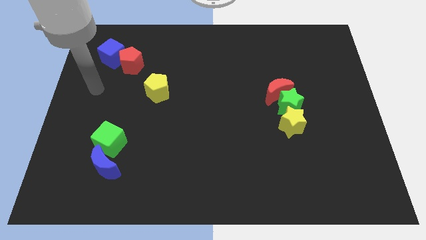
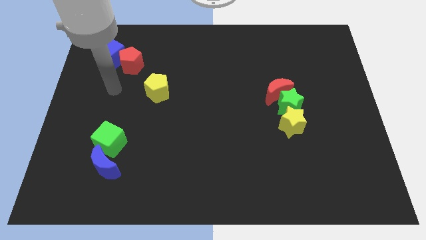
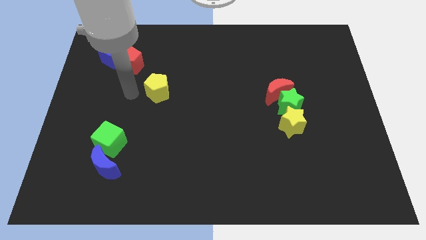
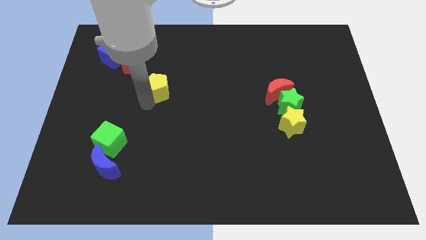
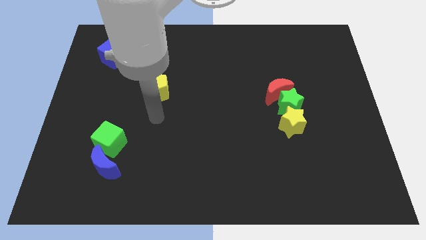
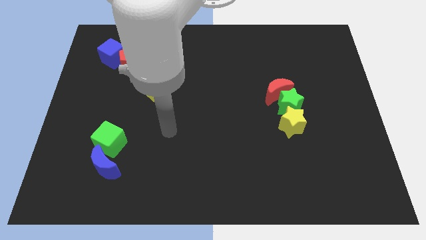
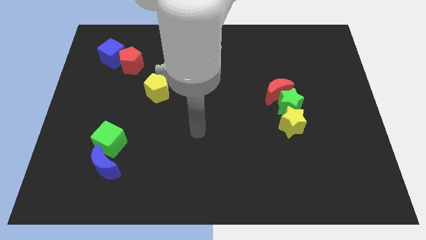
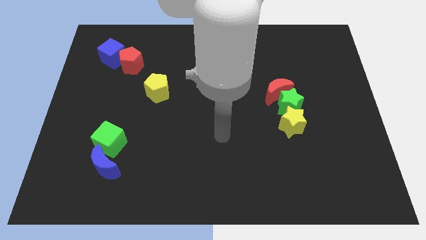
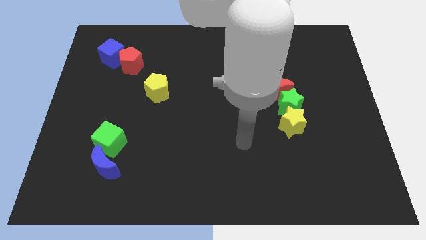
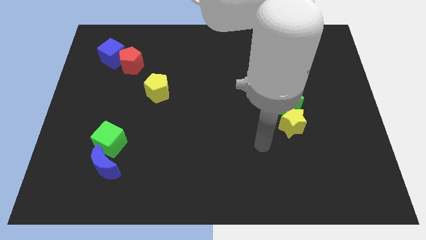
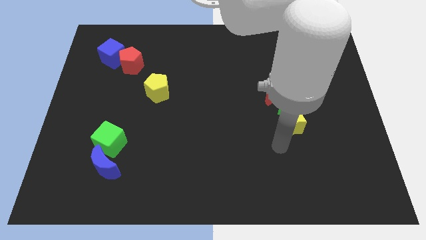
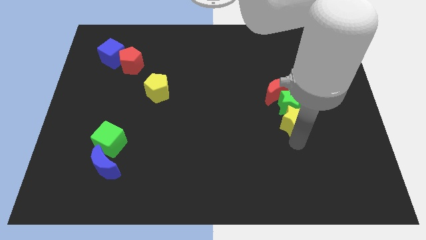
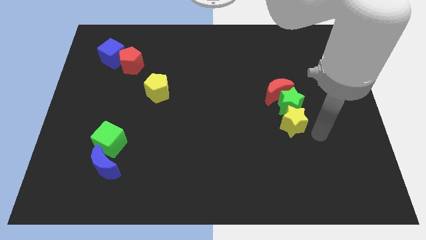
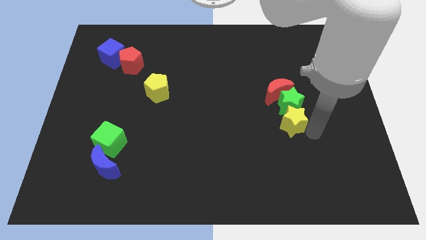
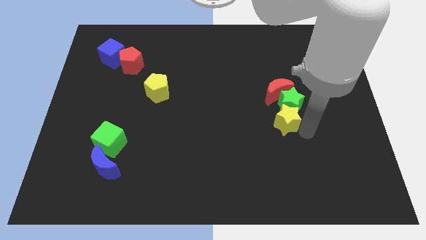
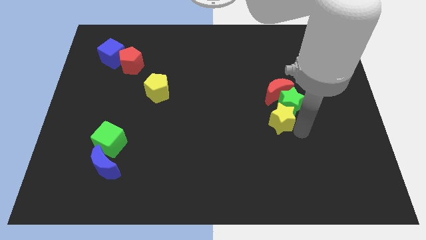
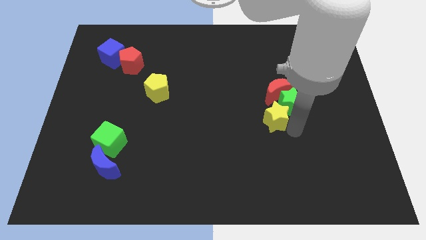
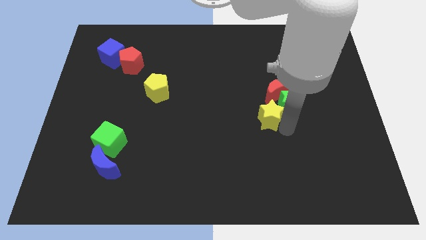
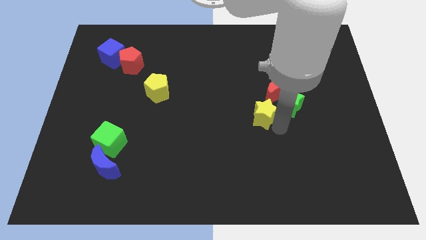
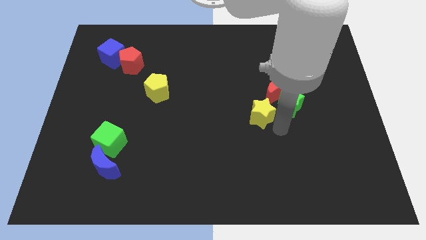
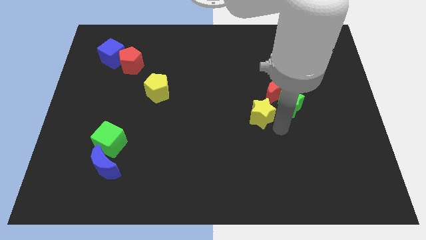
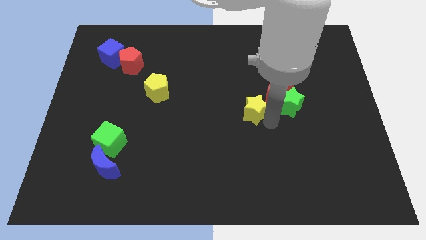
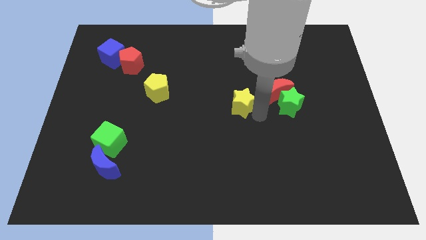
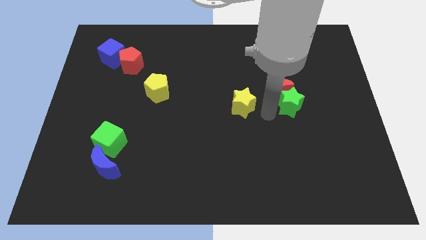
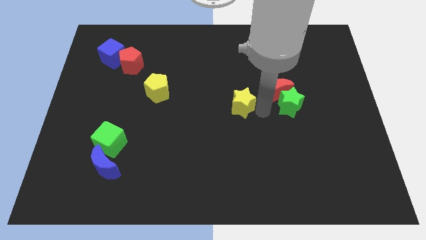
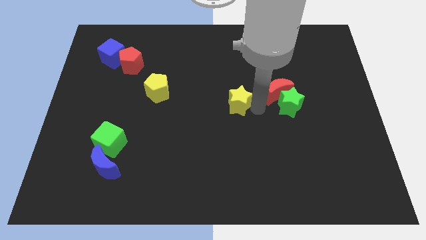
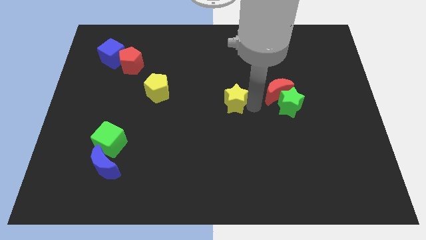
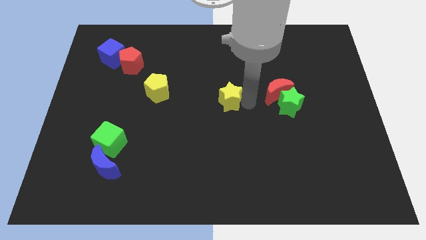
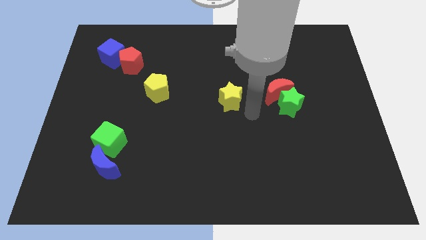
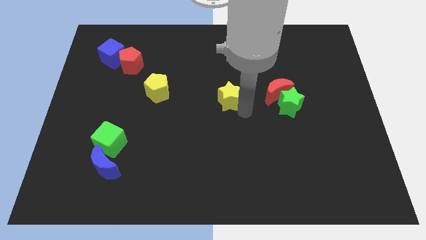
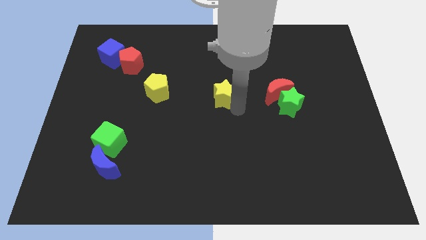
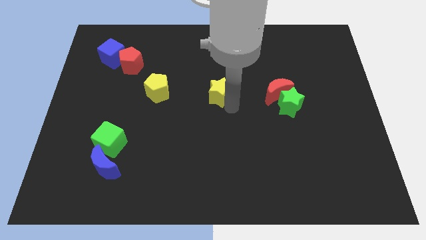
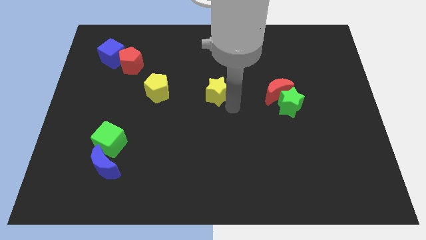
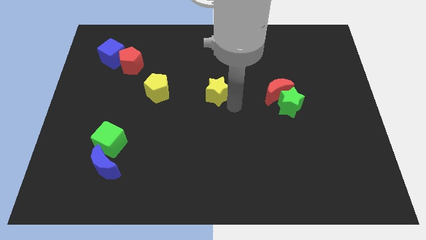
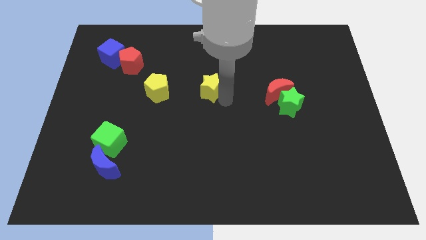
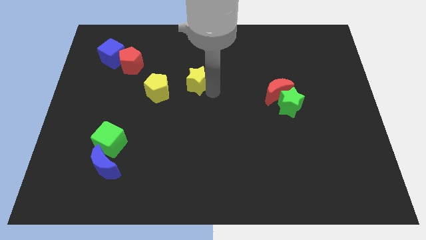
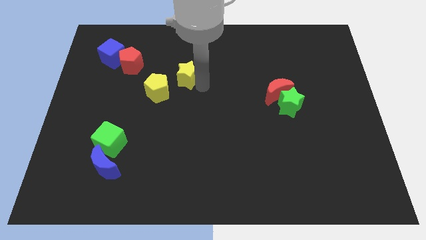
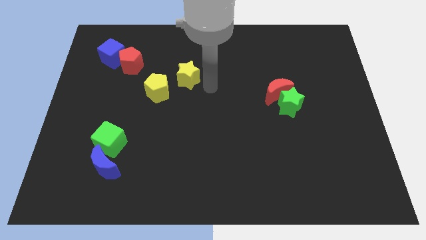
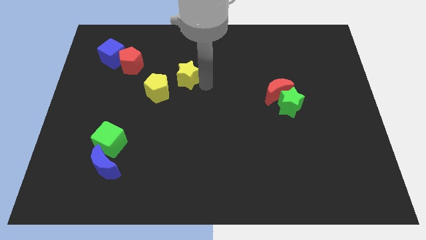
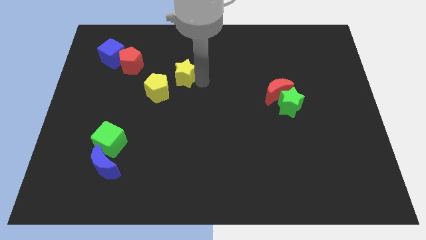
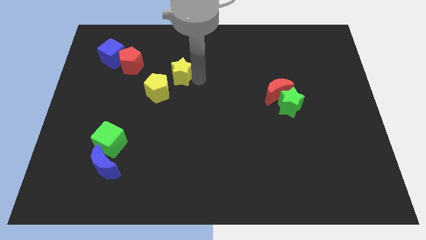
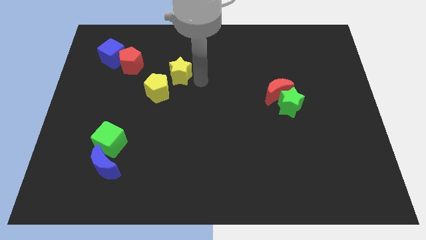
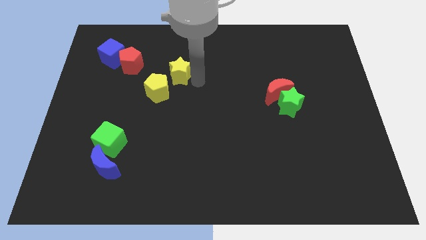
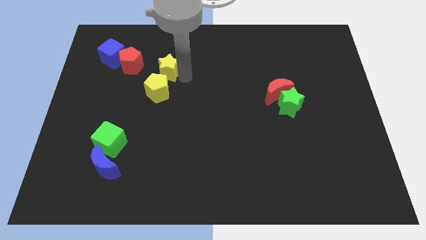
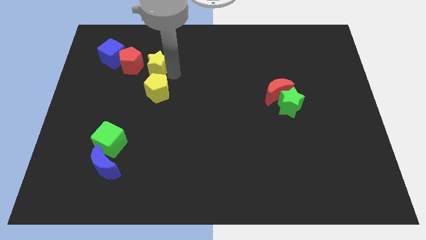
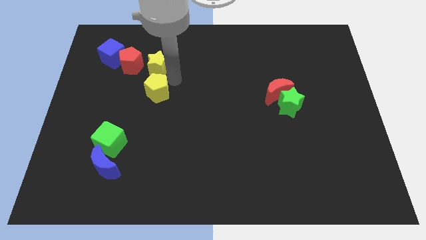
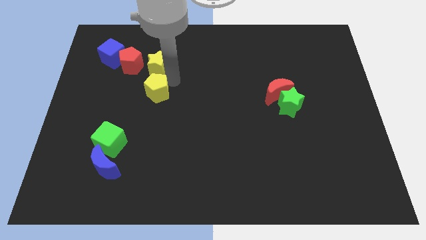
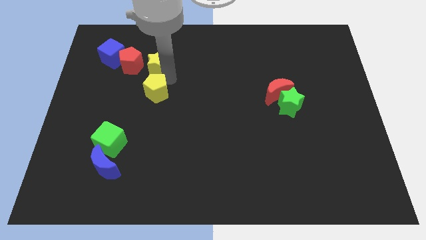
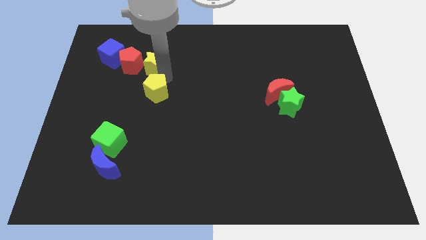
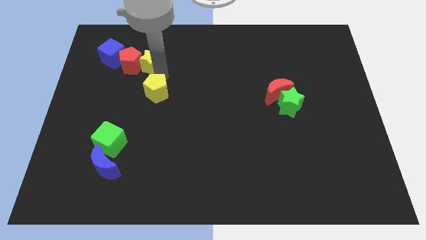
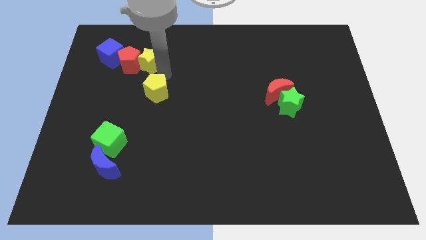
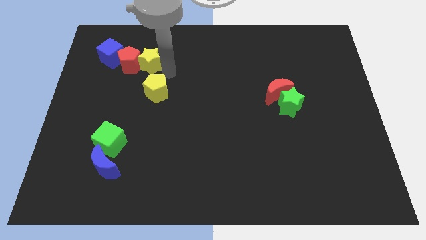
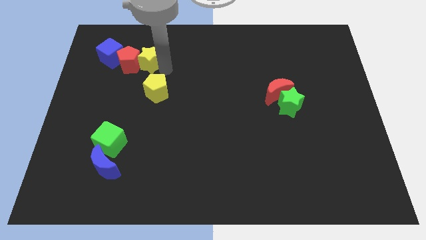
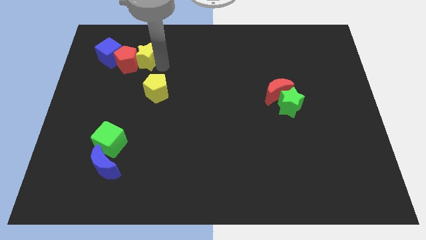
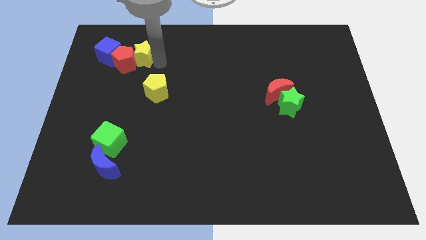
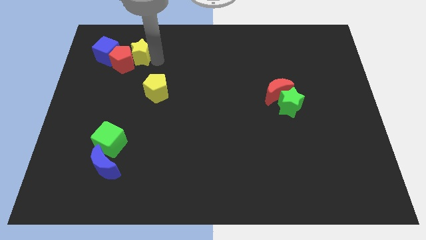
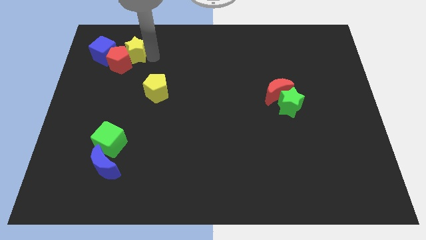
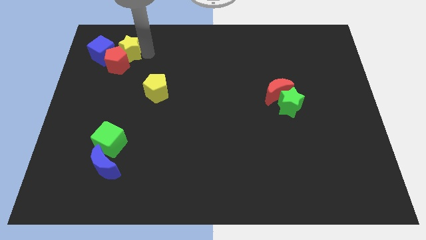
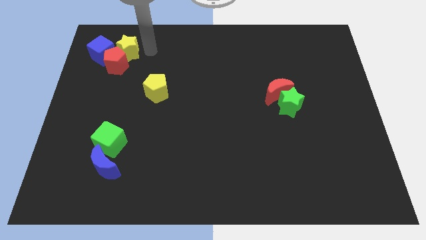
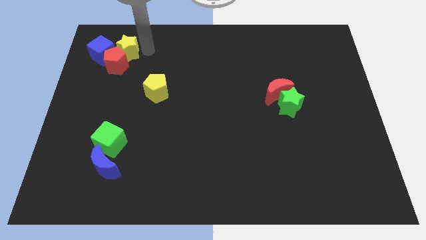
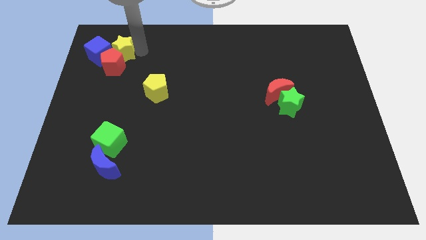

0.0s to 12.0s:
push the yellow star close to the blue cube

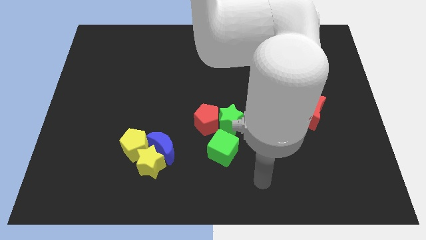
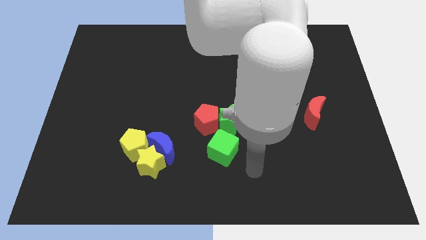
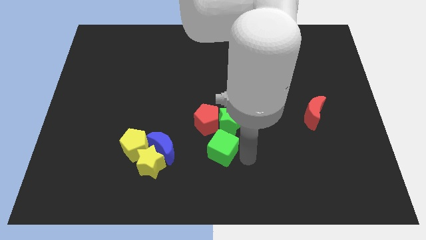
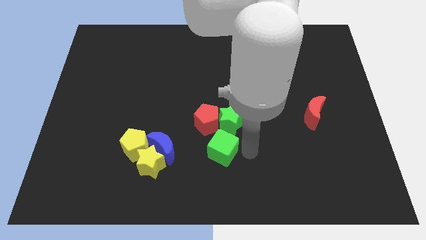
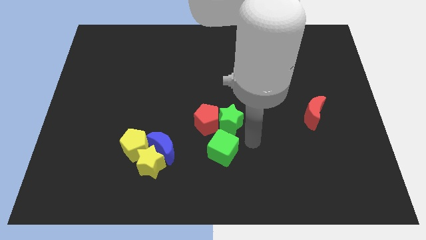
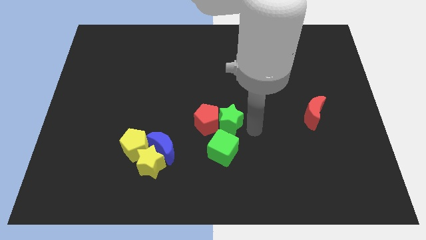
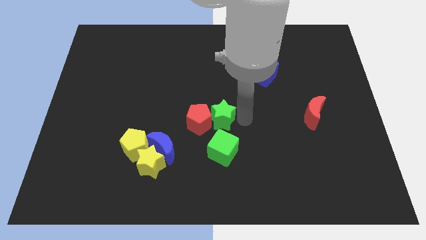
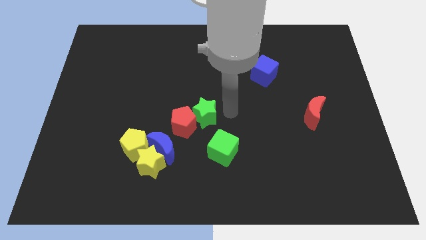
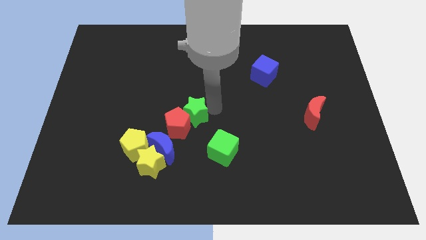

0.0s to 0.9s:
put the red pentagon close to the blue moon
